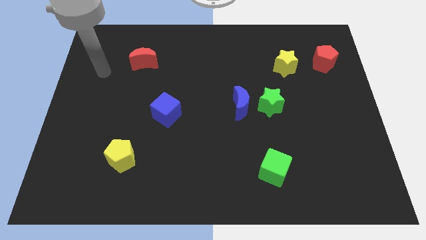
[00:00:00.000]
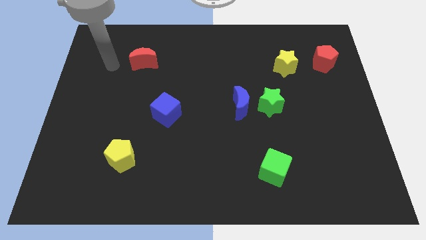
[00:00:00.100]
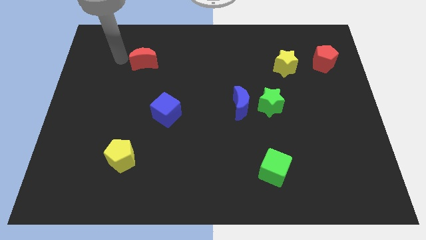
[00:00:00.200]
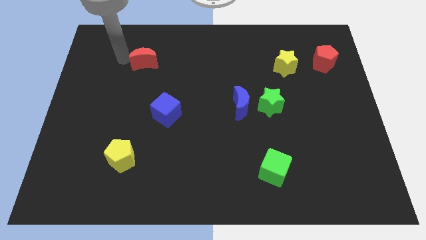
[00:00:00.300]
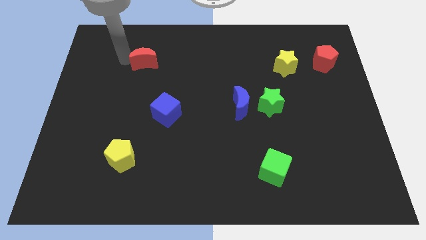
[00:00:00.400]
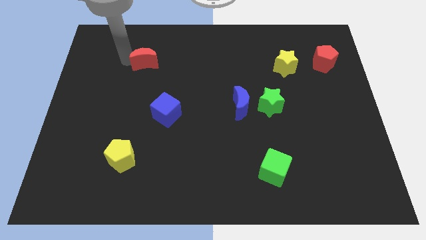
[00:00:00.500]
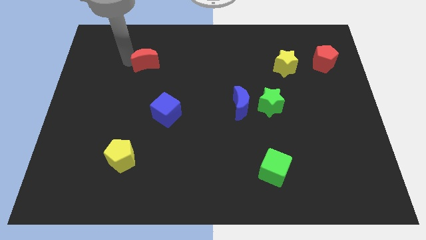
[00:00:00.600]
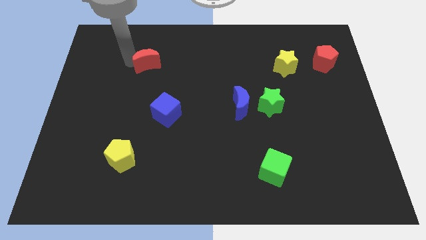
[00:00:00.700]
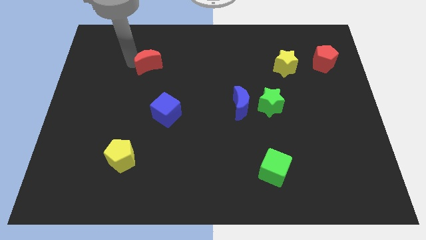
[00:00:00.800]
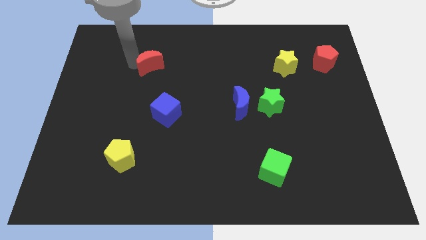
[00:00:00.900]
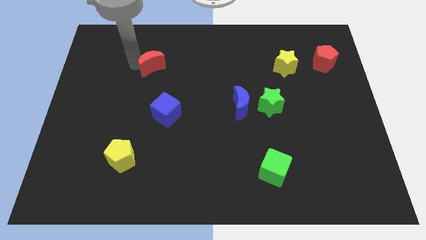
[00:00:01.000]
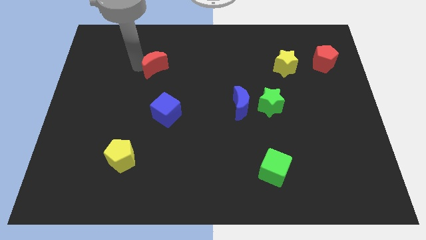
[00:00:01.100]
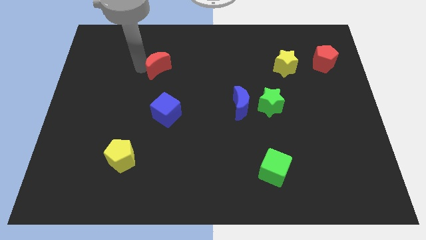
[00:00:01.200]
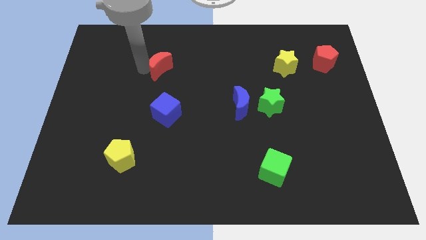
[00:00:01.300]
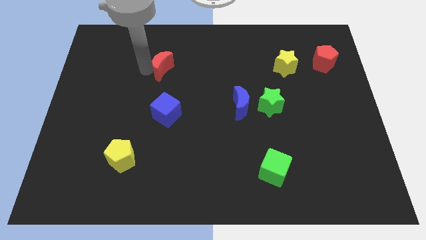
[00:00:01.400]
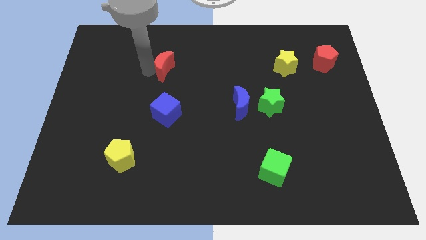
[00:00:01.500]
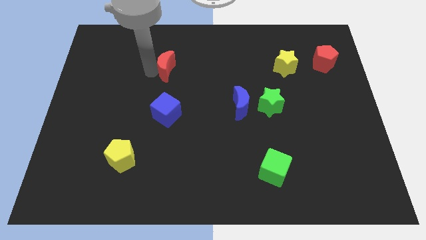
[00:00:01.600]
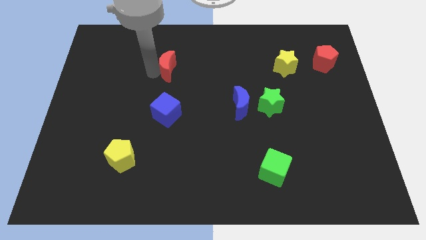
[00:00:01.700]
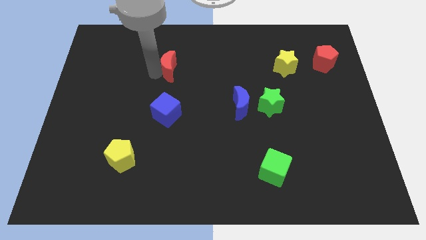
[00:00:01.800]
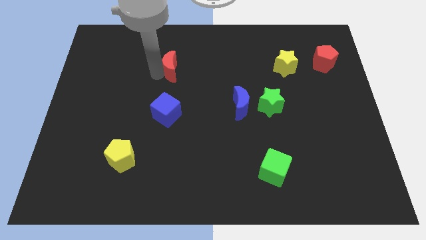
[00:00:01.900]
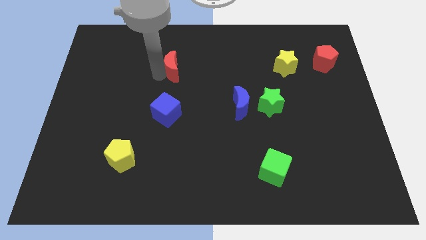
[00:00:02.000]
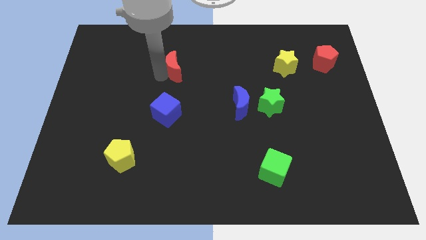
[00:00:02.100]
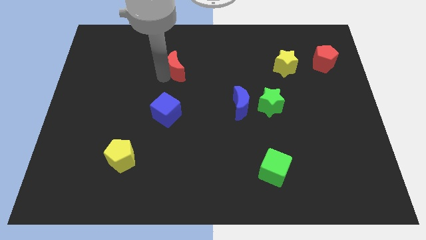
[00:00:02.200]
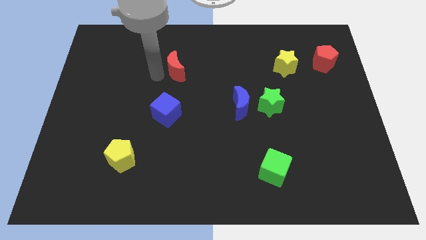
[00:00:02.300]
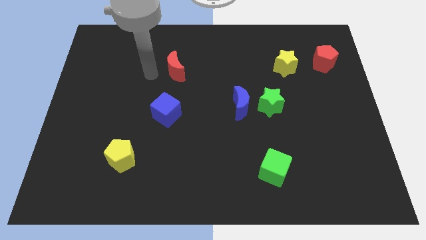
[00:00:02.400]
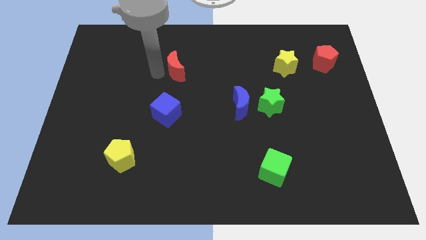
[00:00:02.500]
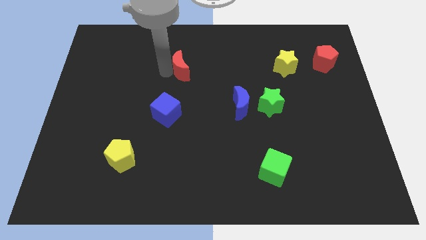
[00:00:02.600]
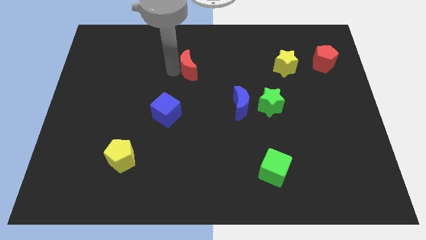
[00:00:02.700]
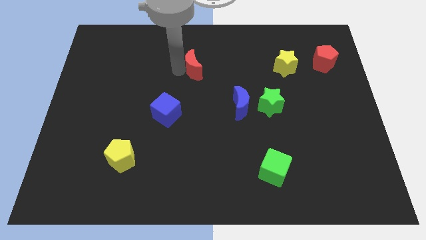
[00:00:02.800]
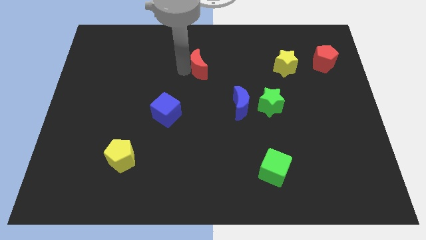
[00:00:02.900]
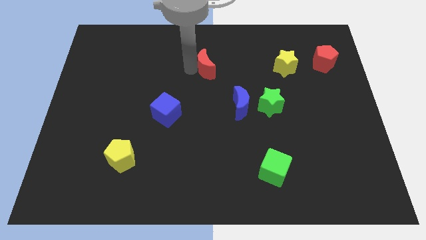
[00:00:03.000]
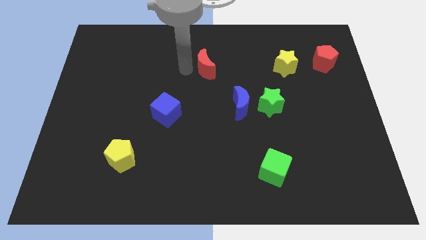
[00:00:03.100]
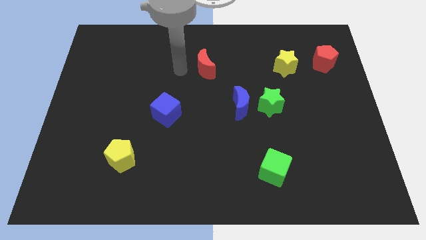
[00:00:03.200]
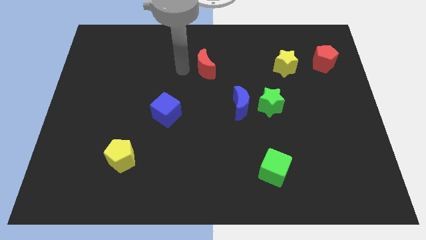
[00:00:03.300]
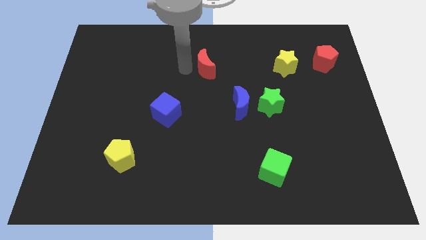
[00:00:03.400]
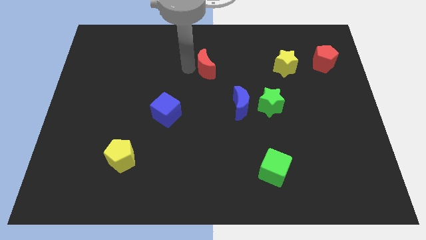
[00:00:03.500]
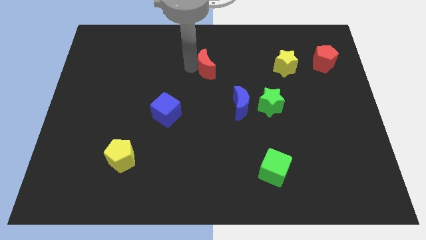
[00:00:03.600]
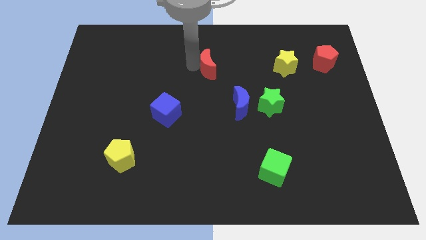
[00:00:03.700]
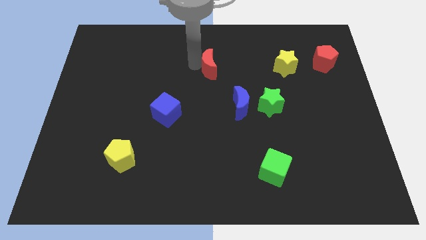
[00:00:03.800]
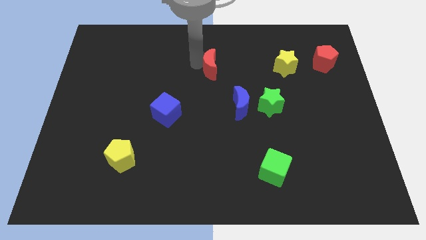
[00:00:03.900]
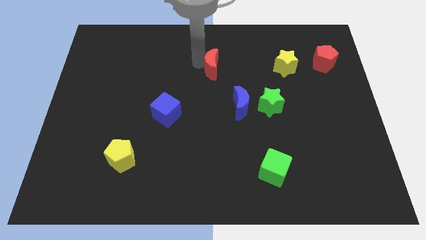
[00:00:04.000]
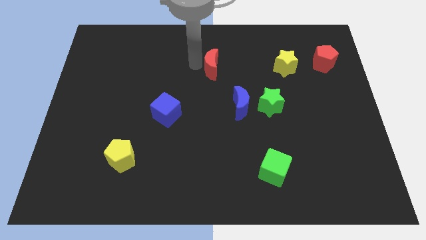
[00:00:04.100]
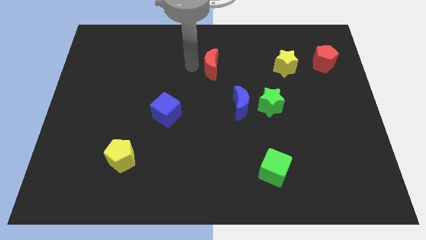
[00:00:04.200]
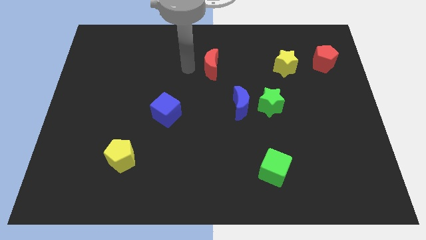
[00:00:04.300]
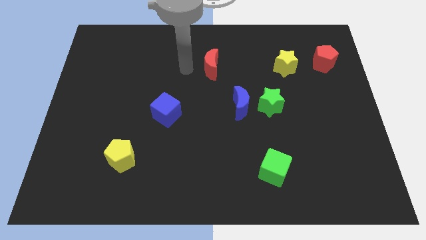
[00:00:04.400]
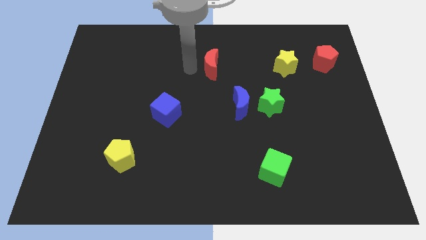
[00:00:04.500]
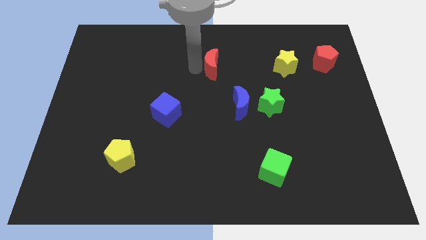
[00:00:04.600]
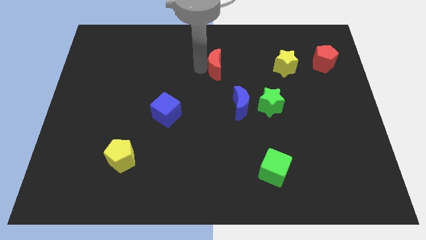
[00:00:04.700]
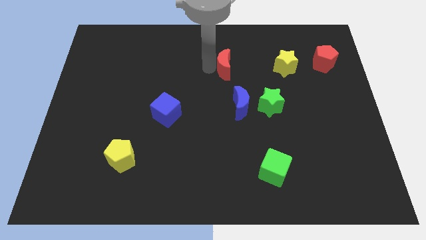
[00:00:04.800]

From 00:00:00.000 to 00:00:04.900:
push the red moon right

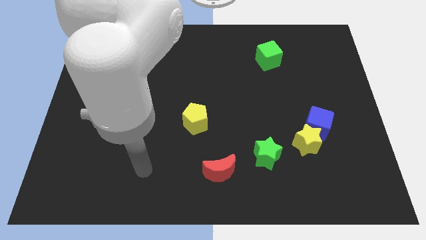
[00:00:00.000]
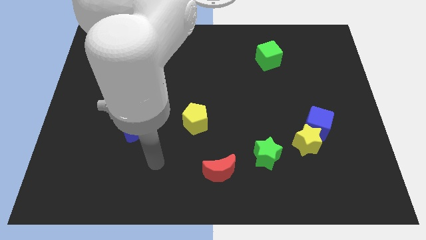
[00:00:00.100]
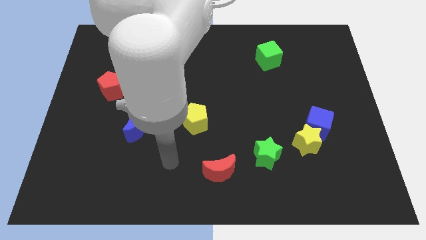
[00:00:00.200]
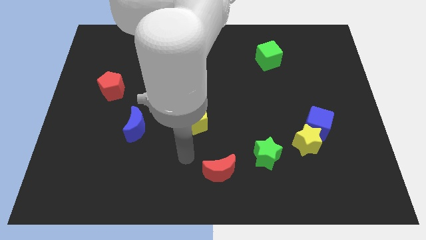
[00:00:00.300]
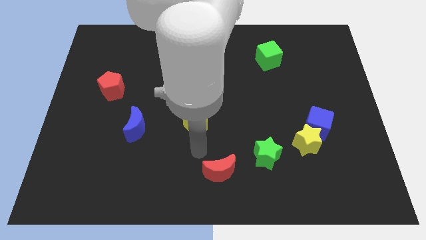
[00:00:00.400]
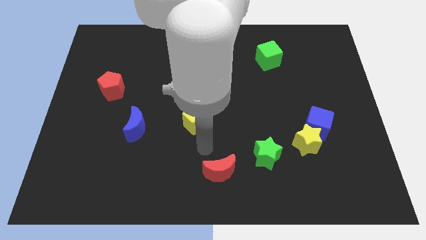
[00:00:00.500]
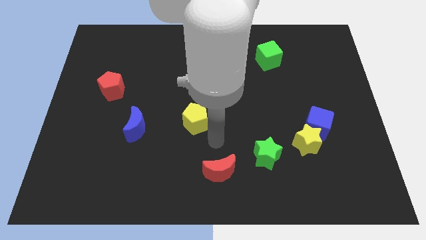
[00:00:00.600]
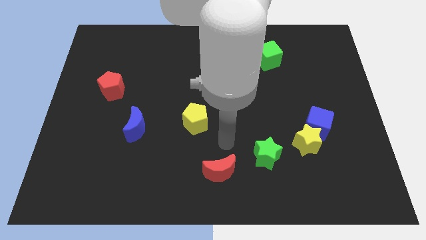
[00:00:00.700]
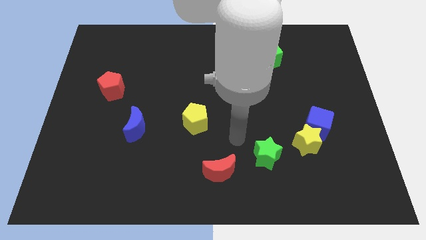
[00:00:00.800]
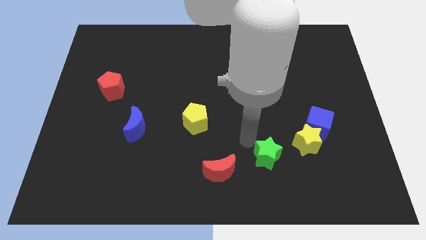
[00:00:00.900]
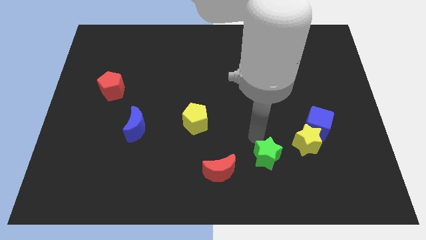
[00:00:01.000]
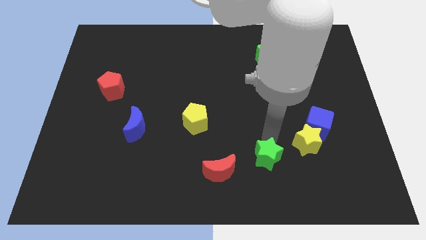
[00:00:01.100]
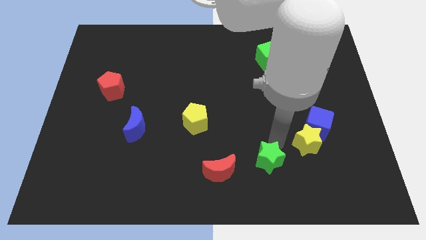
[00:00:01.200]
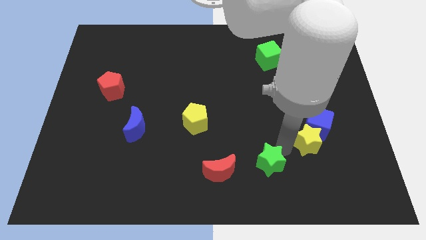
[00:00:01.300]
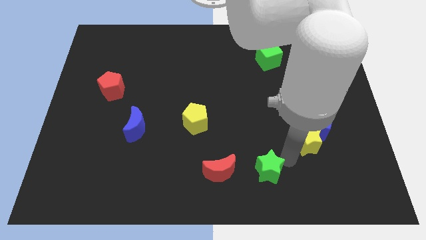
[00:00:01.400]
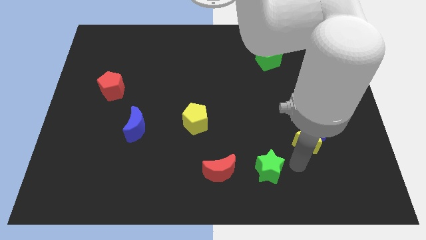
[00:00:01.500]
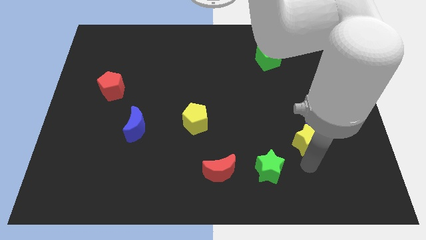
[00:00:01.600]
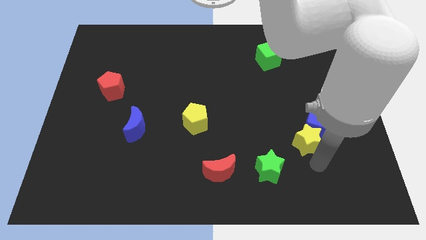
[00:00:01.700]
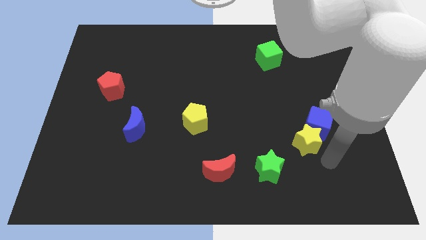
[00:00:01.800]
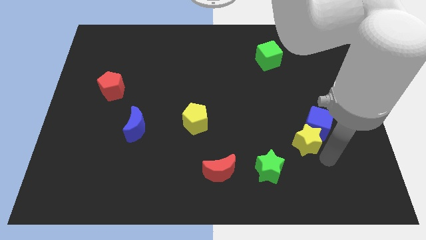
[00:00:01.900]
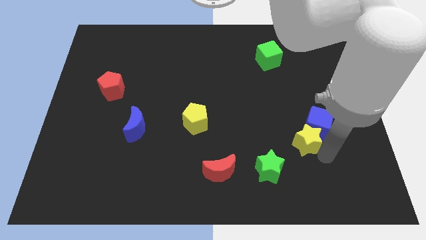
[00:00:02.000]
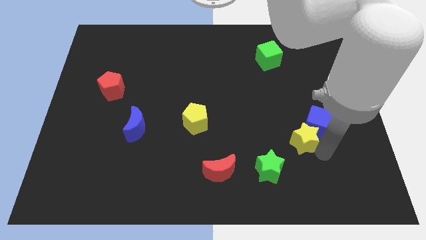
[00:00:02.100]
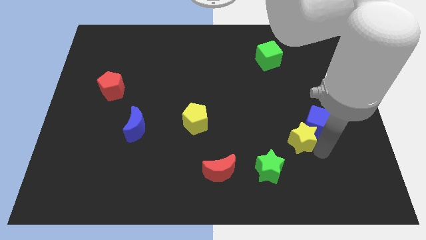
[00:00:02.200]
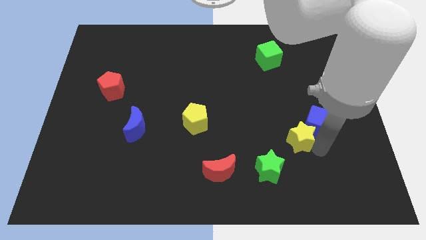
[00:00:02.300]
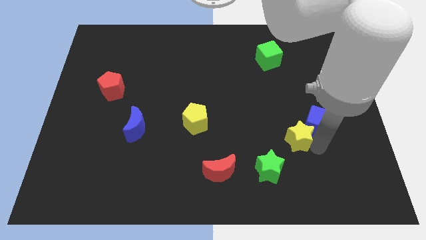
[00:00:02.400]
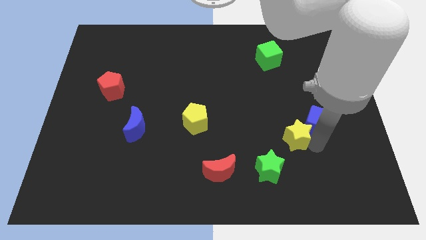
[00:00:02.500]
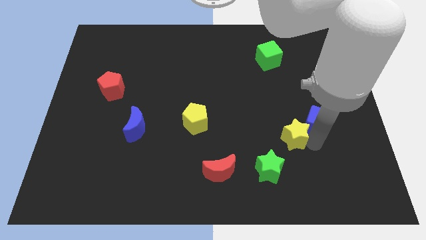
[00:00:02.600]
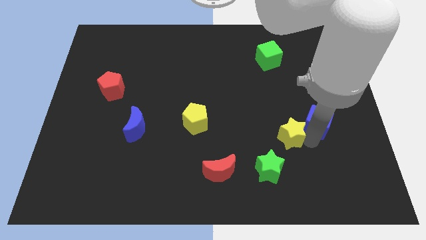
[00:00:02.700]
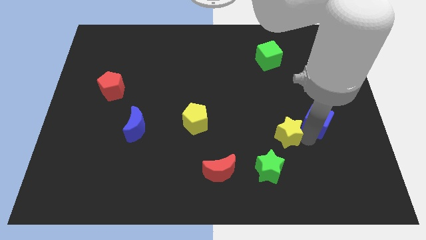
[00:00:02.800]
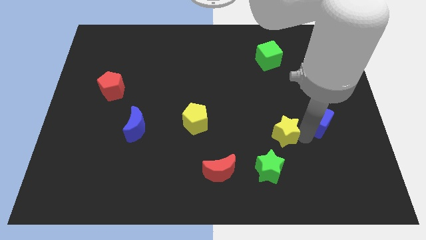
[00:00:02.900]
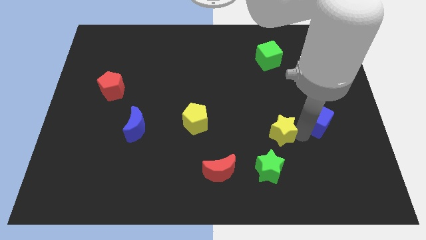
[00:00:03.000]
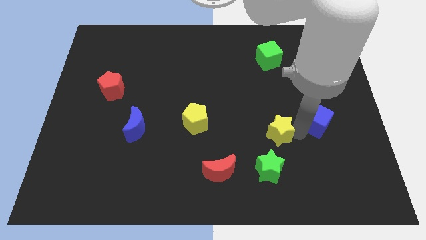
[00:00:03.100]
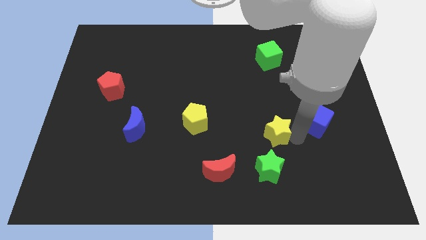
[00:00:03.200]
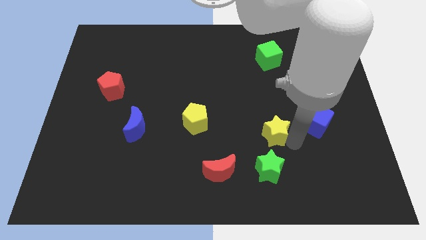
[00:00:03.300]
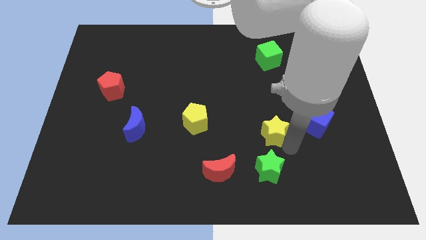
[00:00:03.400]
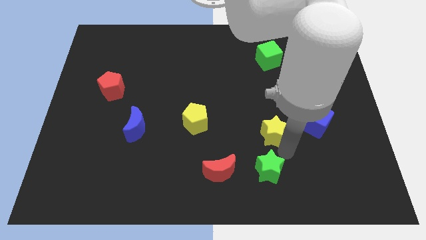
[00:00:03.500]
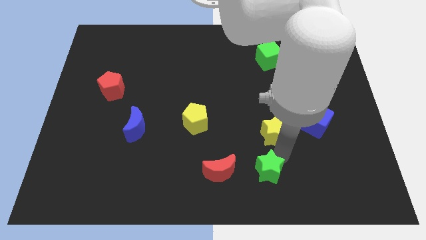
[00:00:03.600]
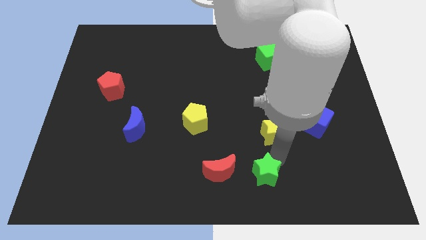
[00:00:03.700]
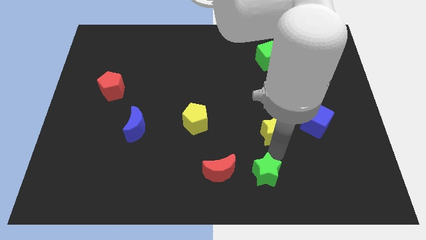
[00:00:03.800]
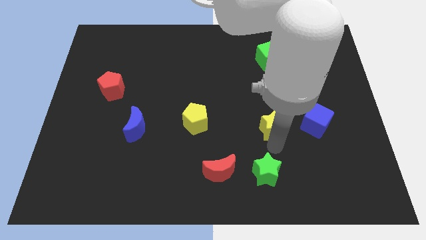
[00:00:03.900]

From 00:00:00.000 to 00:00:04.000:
slightly push the yellow star up and to the left
